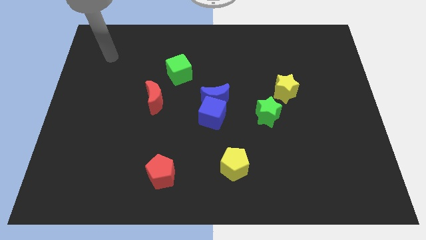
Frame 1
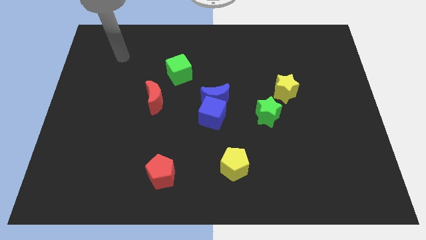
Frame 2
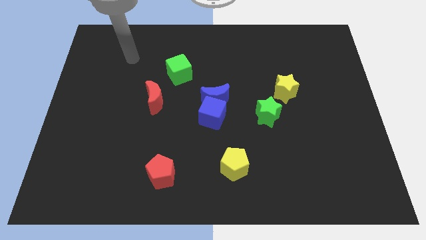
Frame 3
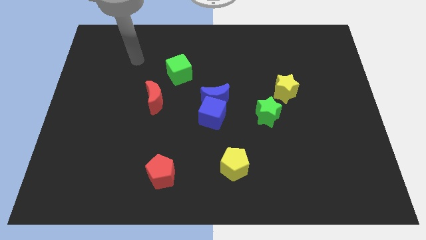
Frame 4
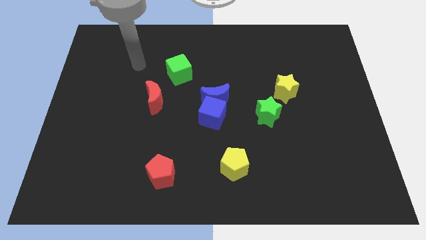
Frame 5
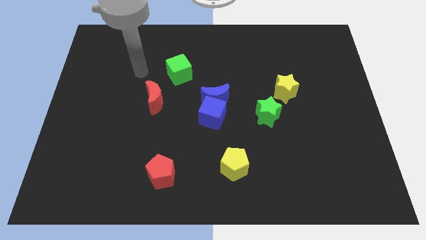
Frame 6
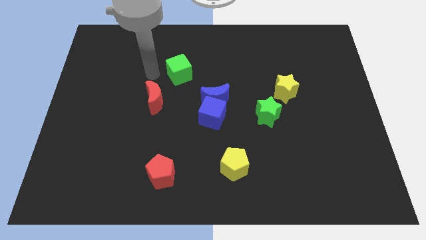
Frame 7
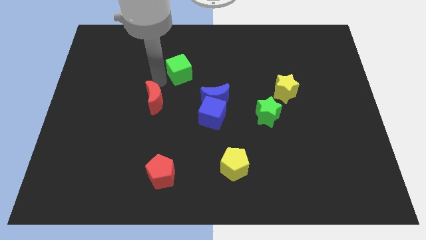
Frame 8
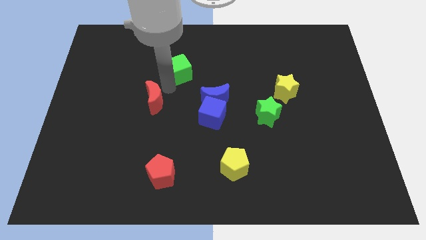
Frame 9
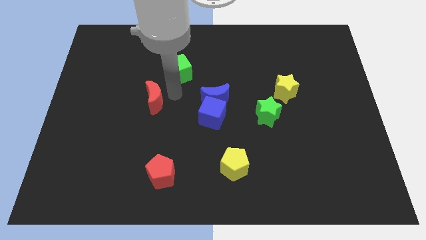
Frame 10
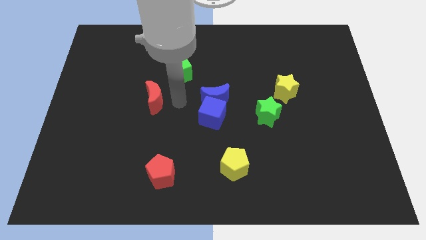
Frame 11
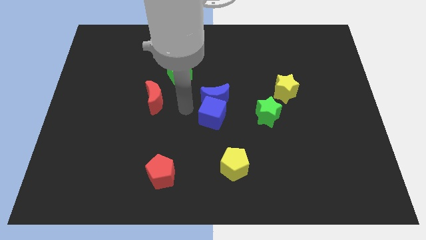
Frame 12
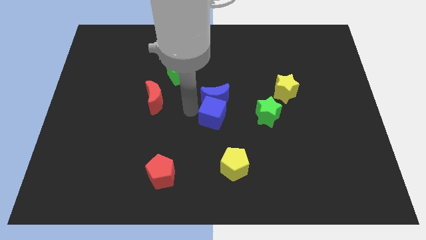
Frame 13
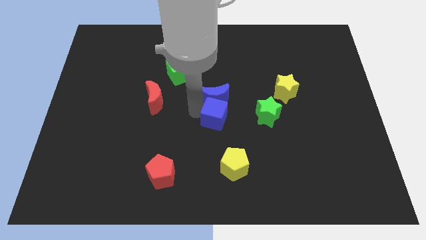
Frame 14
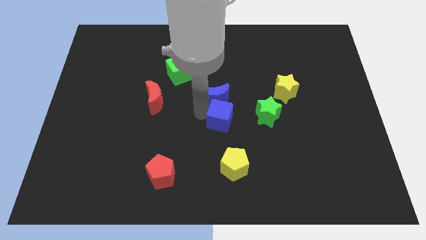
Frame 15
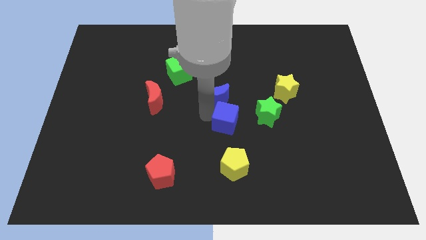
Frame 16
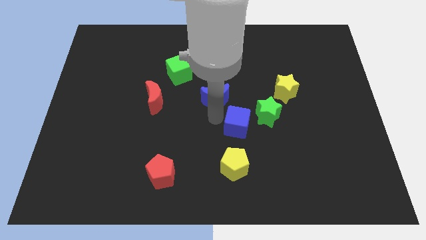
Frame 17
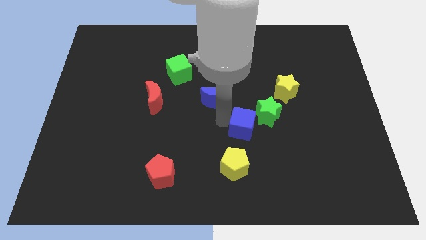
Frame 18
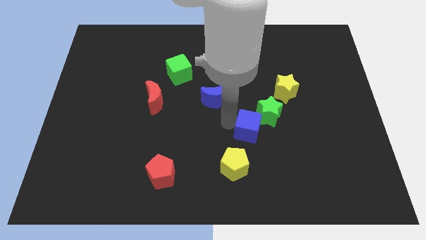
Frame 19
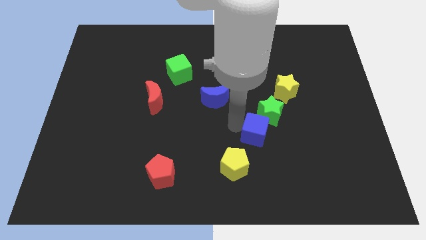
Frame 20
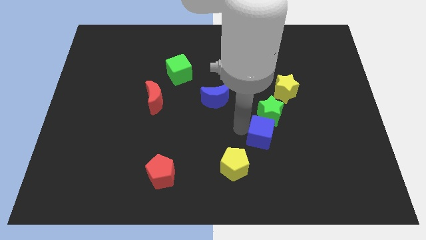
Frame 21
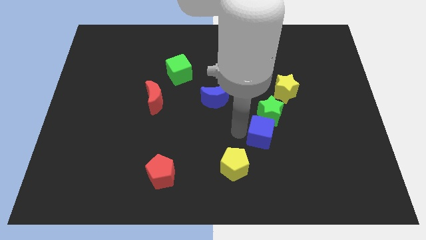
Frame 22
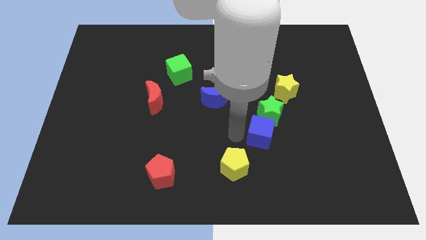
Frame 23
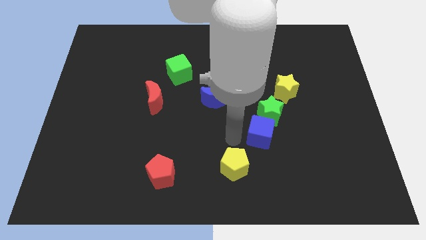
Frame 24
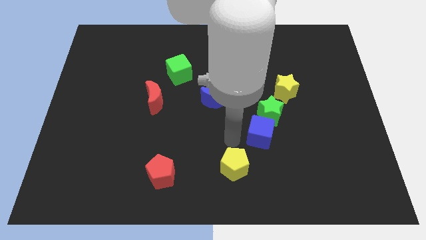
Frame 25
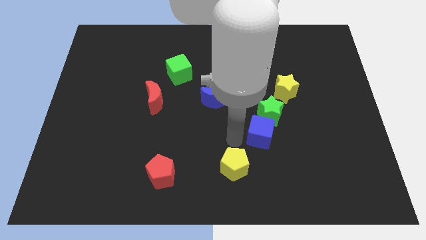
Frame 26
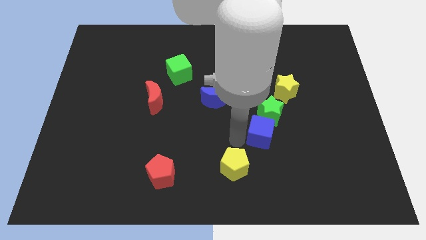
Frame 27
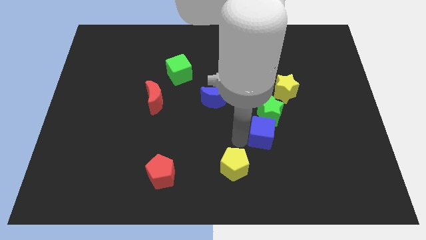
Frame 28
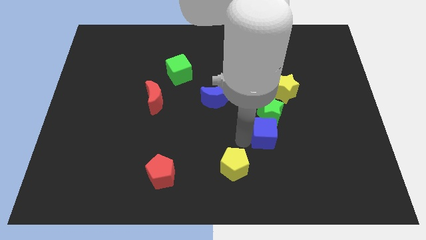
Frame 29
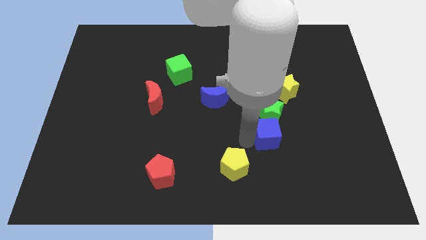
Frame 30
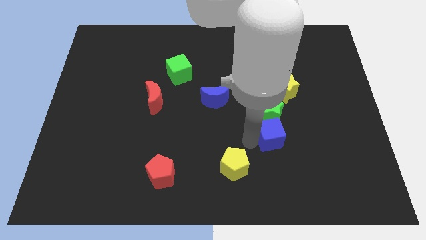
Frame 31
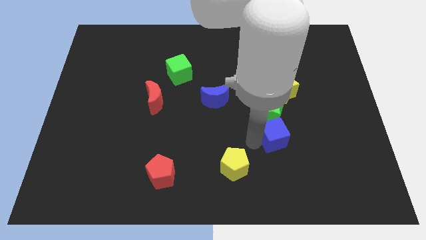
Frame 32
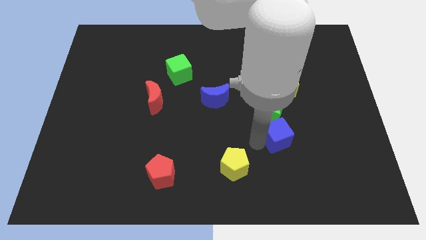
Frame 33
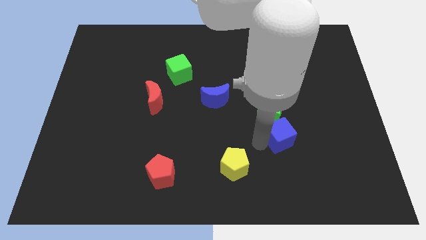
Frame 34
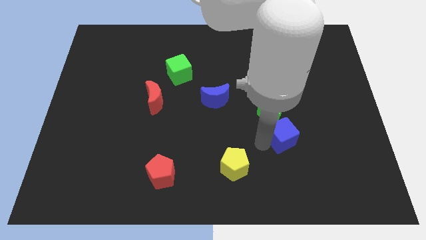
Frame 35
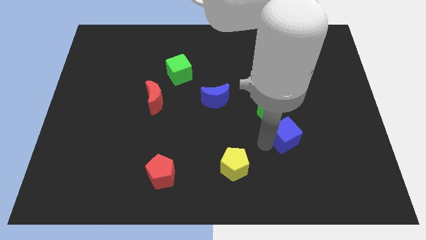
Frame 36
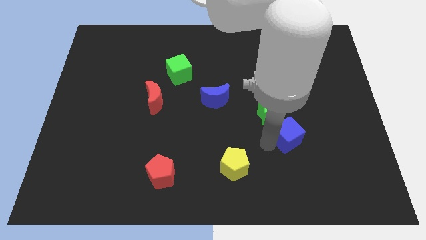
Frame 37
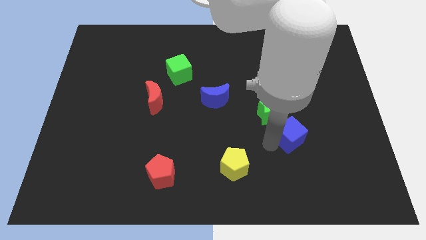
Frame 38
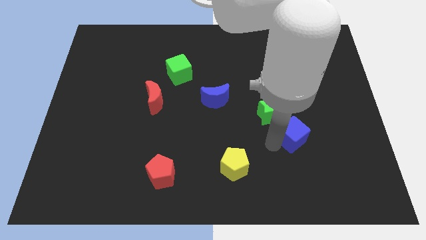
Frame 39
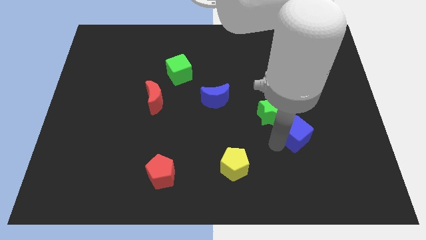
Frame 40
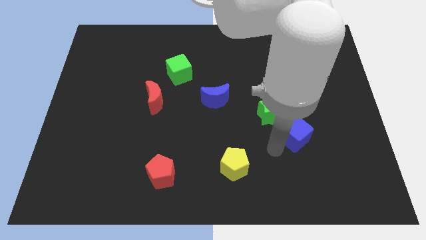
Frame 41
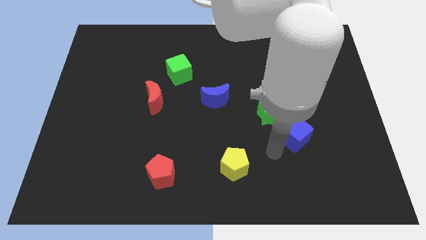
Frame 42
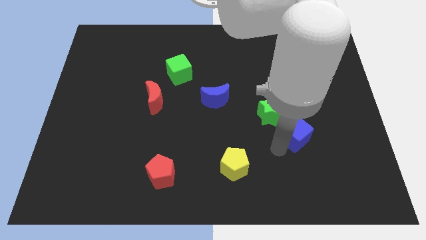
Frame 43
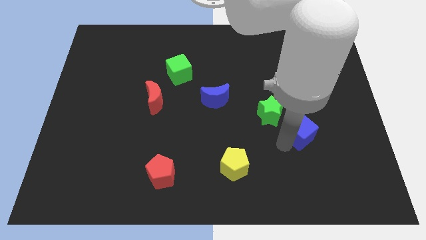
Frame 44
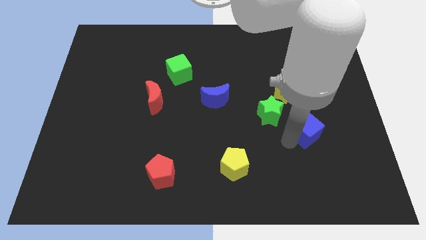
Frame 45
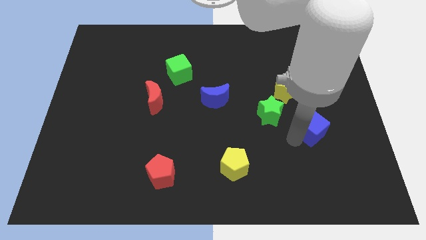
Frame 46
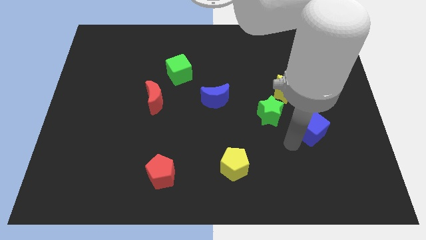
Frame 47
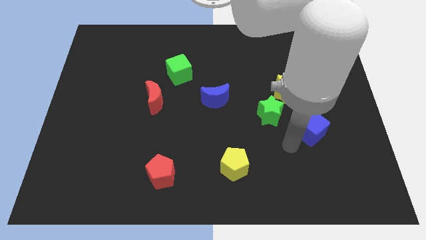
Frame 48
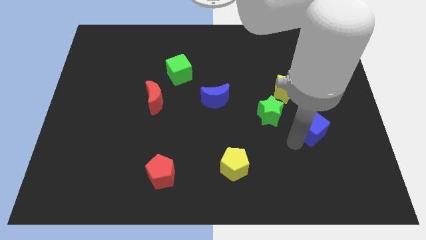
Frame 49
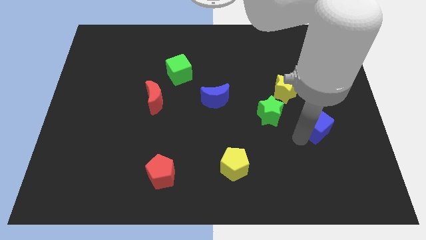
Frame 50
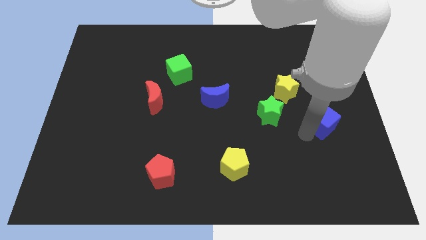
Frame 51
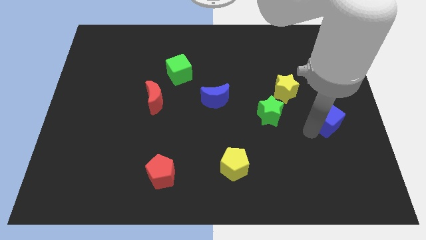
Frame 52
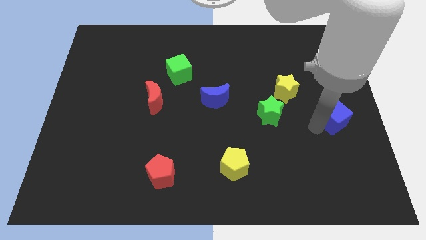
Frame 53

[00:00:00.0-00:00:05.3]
put the blue cube to the right side

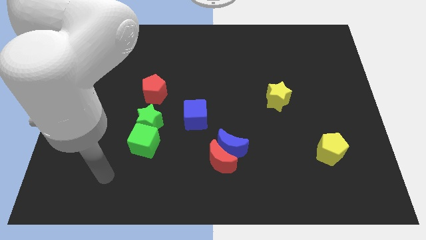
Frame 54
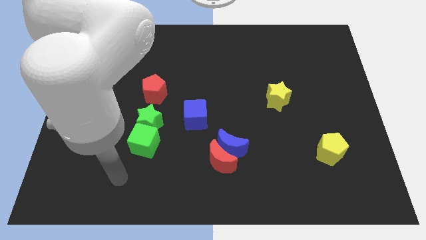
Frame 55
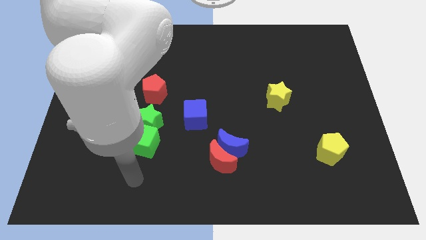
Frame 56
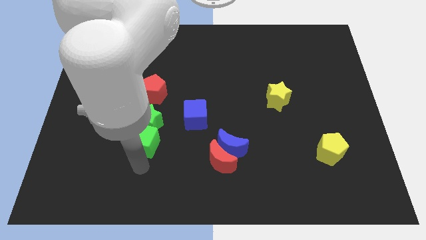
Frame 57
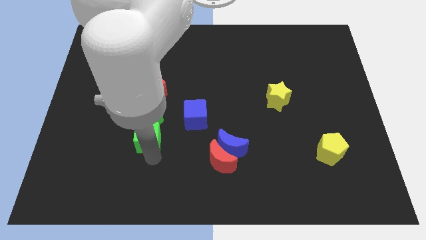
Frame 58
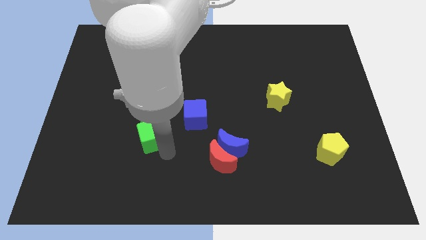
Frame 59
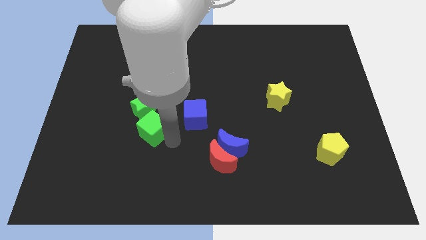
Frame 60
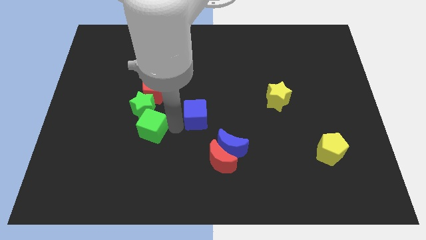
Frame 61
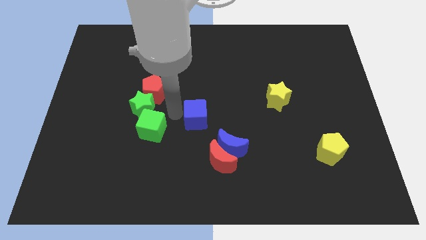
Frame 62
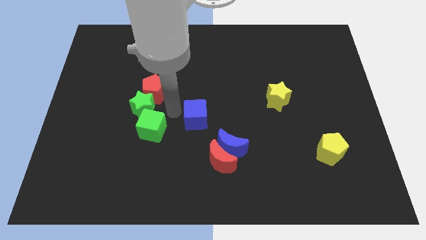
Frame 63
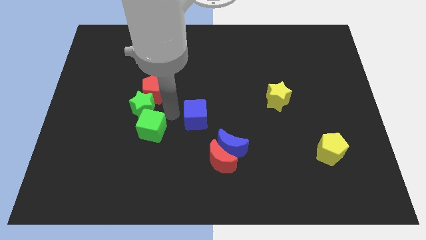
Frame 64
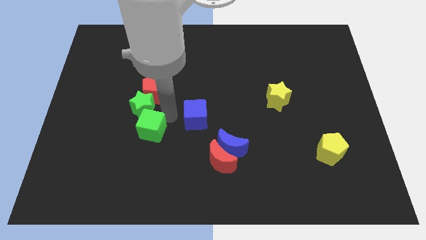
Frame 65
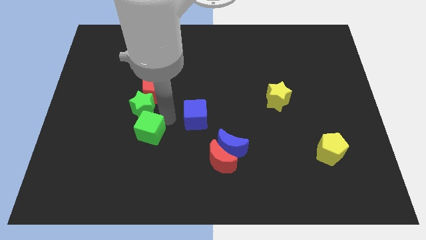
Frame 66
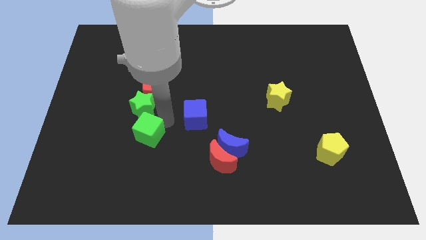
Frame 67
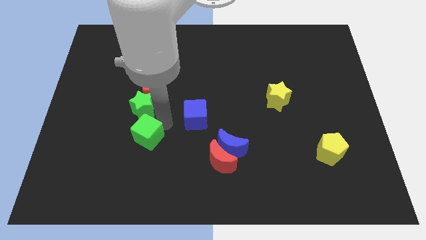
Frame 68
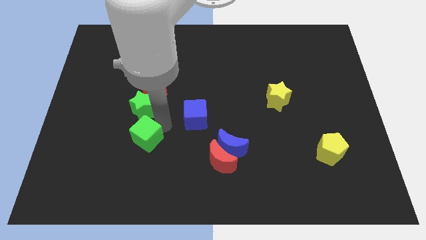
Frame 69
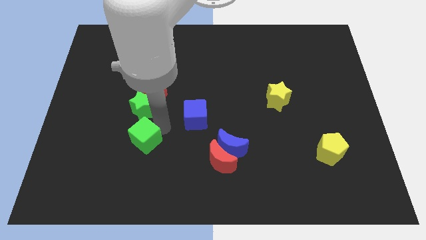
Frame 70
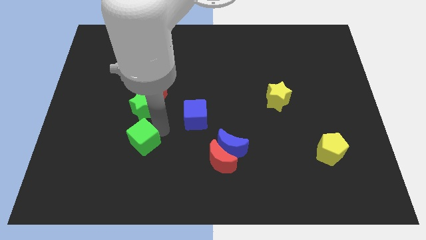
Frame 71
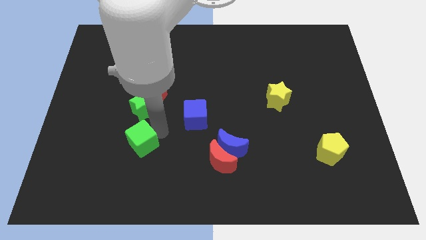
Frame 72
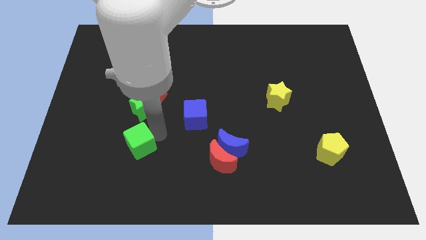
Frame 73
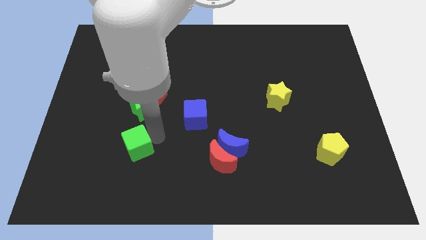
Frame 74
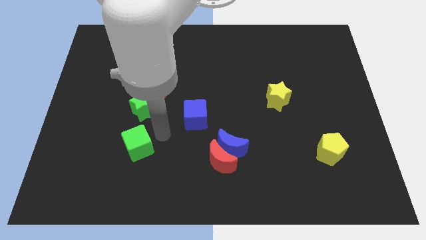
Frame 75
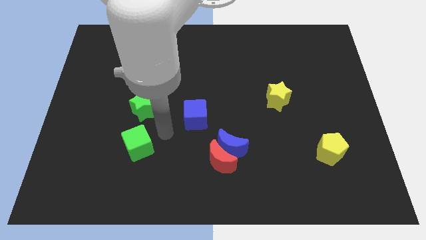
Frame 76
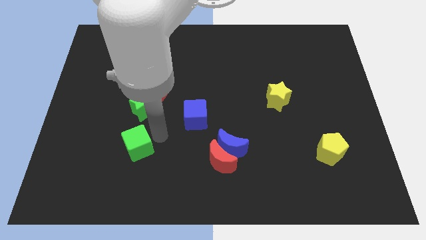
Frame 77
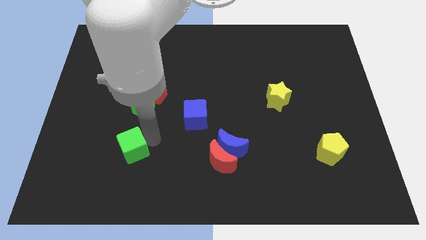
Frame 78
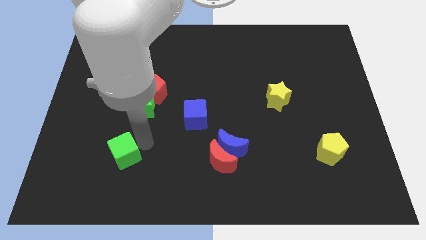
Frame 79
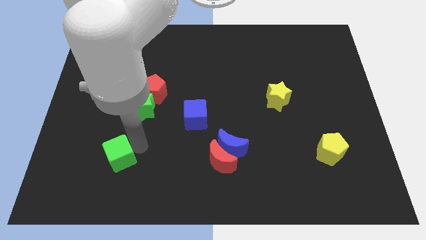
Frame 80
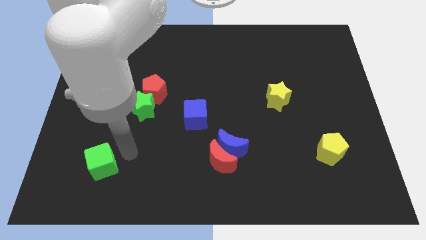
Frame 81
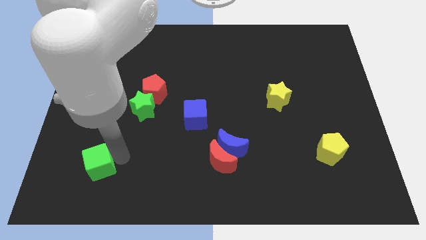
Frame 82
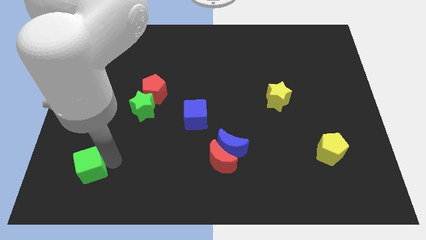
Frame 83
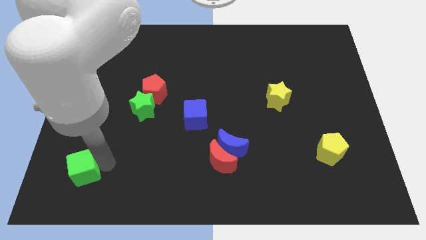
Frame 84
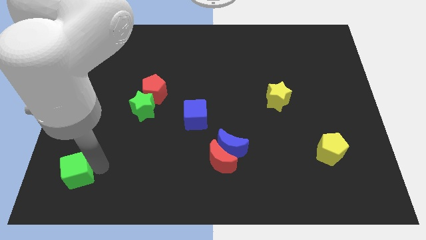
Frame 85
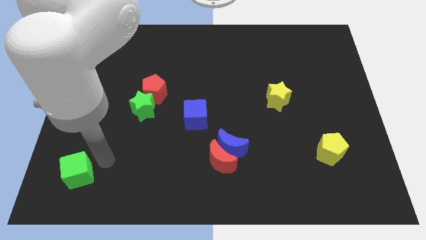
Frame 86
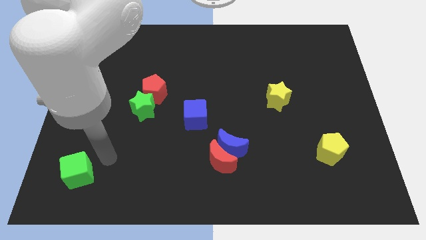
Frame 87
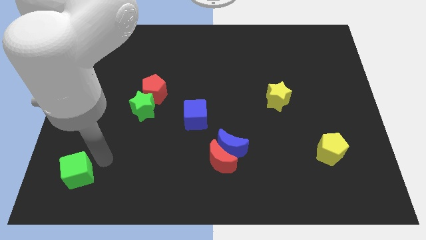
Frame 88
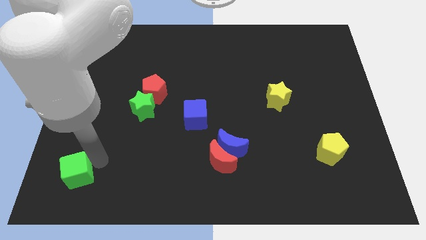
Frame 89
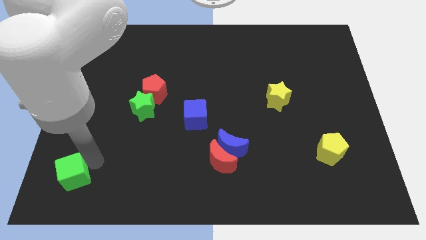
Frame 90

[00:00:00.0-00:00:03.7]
push the green cube to the bottom left of the board
